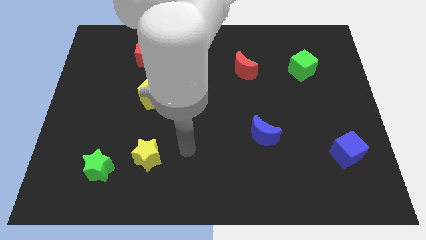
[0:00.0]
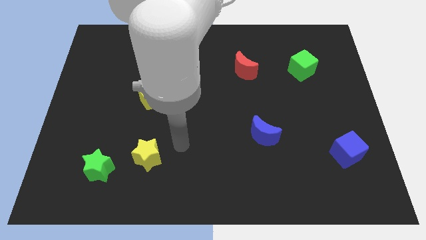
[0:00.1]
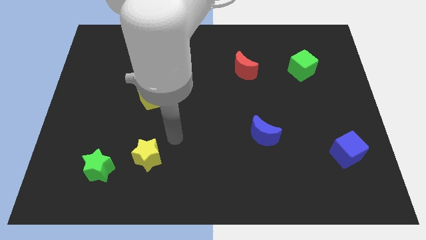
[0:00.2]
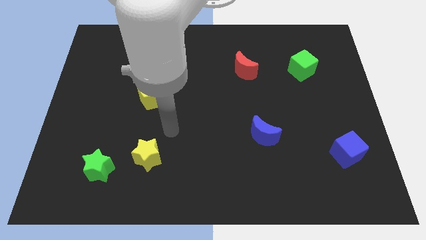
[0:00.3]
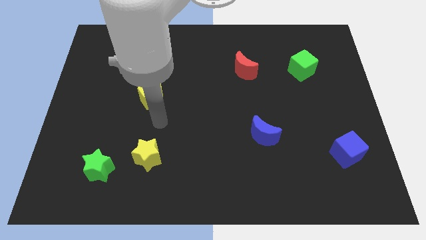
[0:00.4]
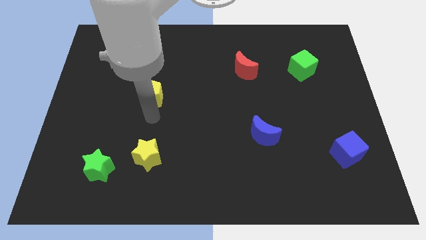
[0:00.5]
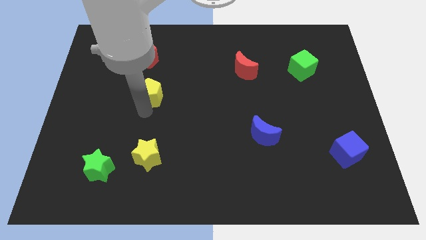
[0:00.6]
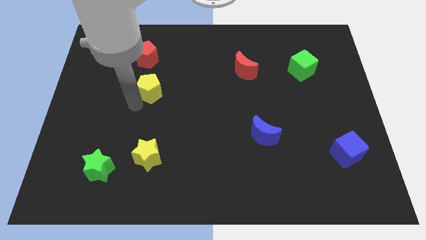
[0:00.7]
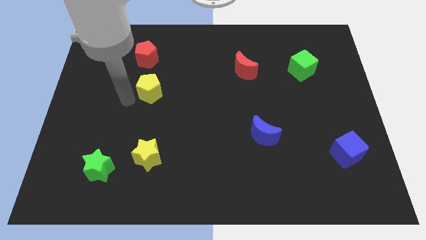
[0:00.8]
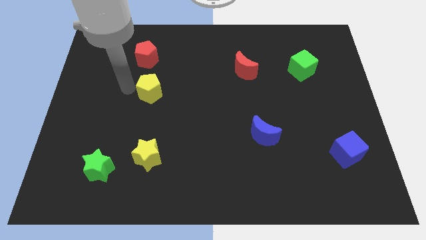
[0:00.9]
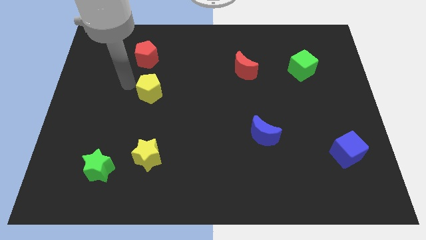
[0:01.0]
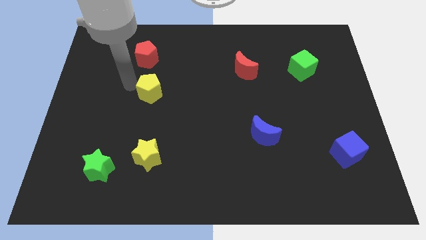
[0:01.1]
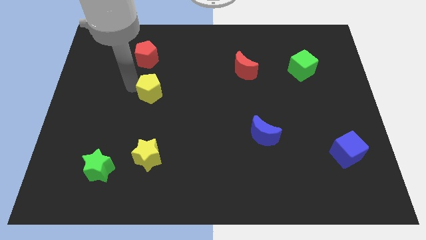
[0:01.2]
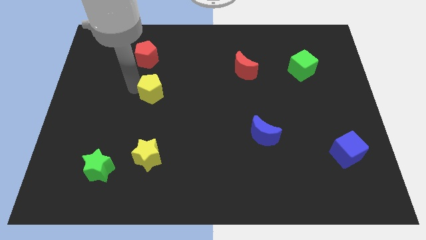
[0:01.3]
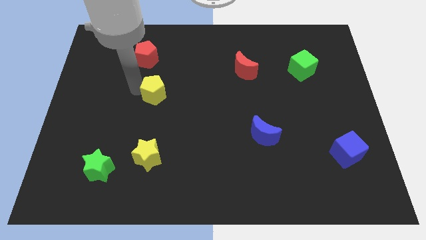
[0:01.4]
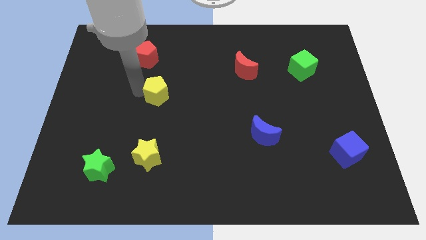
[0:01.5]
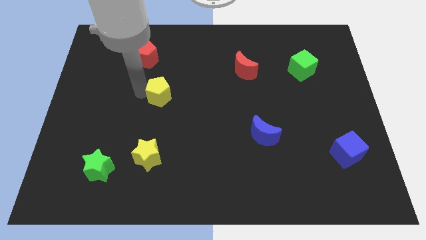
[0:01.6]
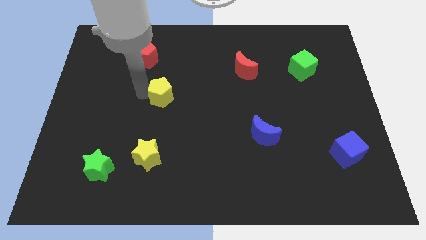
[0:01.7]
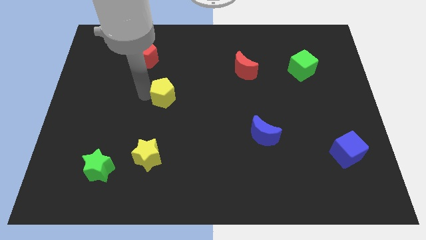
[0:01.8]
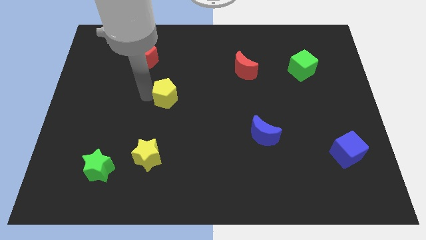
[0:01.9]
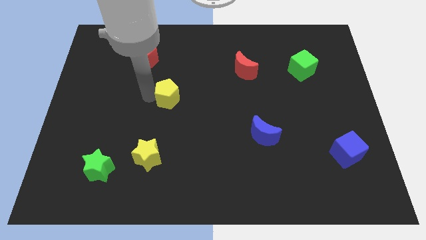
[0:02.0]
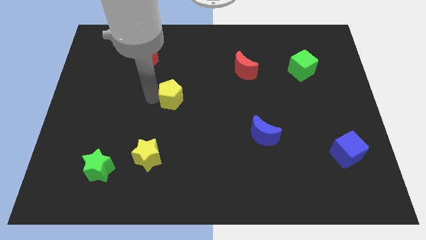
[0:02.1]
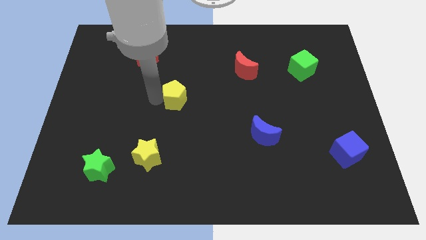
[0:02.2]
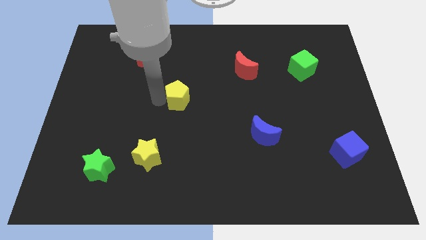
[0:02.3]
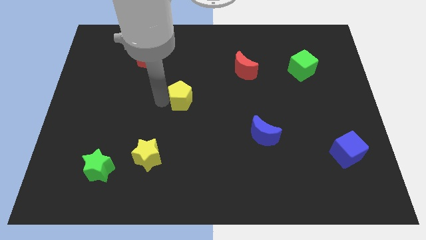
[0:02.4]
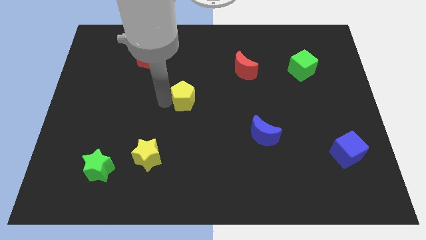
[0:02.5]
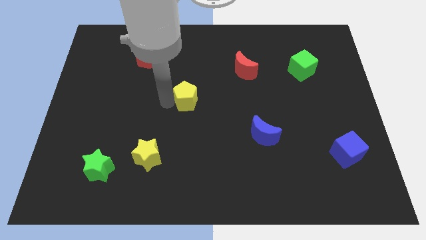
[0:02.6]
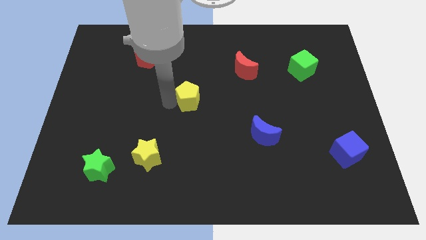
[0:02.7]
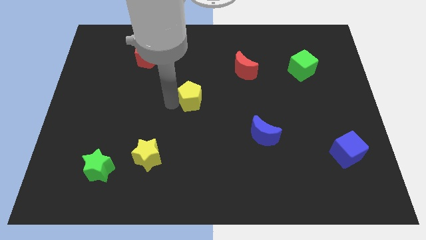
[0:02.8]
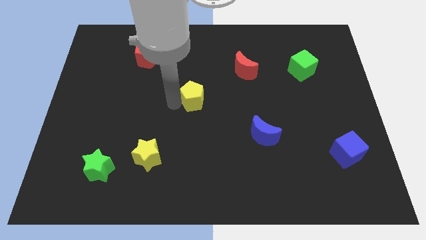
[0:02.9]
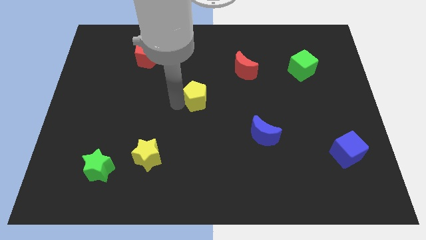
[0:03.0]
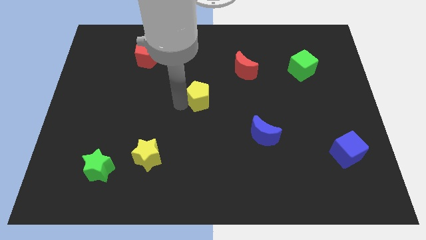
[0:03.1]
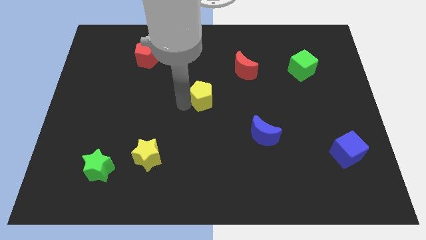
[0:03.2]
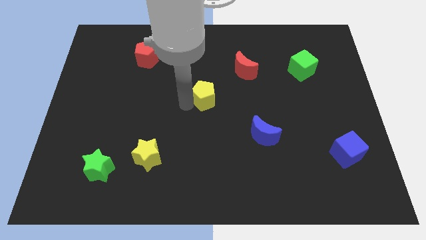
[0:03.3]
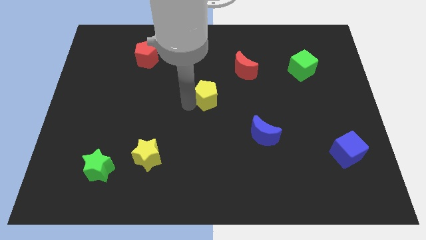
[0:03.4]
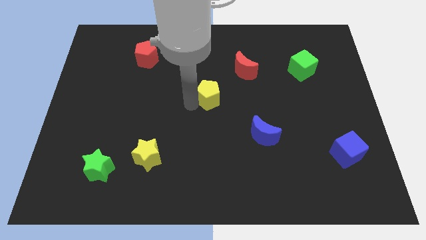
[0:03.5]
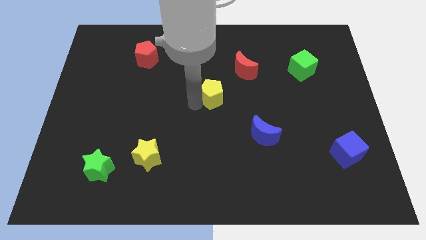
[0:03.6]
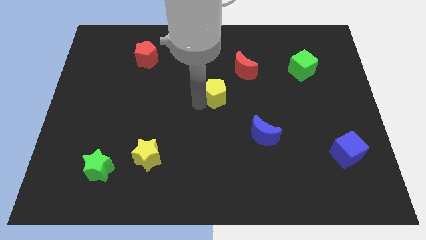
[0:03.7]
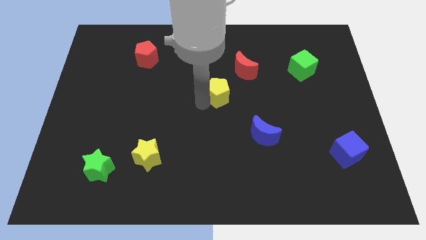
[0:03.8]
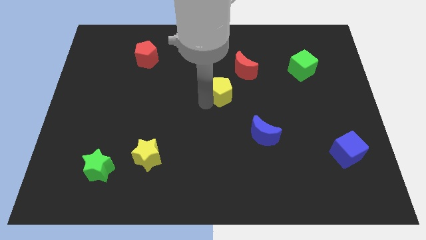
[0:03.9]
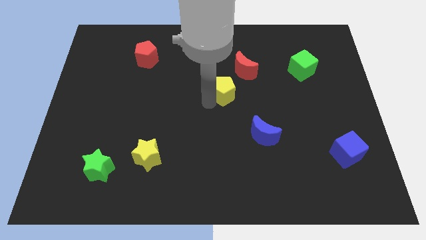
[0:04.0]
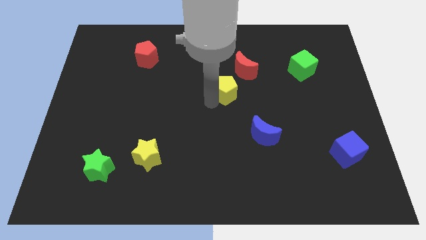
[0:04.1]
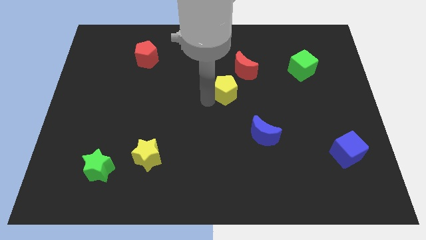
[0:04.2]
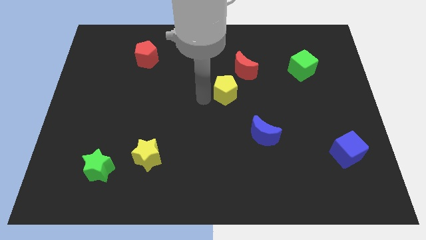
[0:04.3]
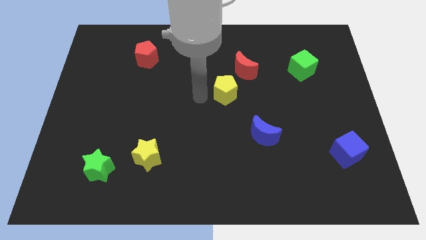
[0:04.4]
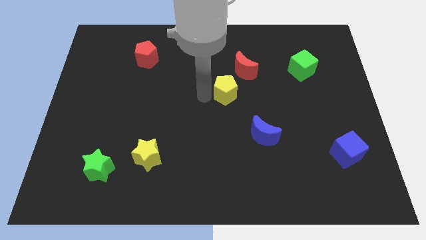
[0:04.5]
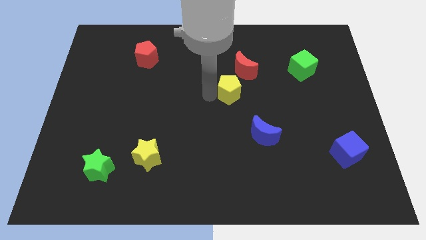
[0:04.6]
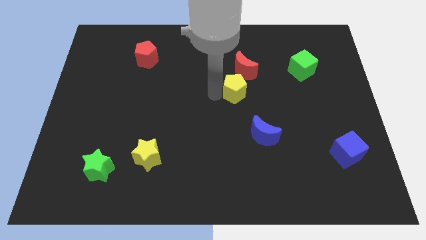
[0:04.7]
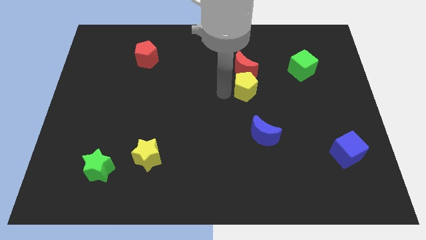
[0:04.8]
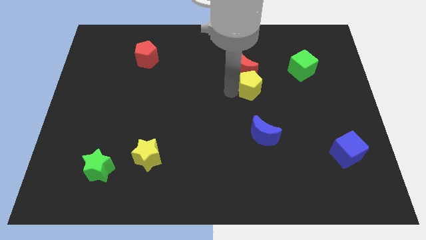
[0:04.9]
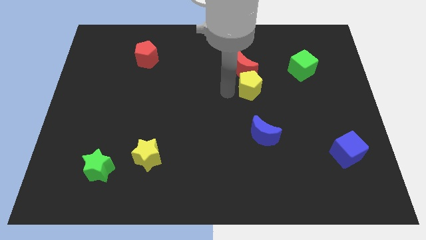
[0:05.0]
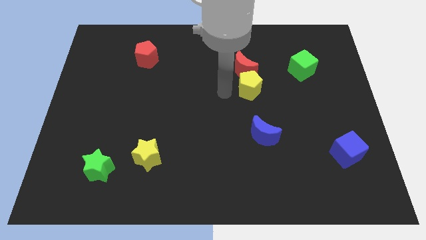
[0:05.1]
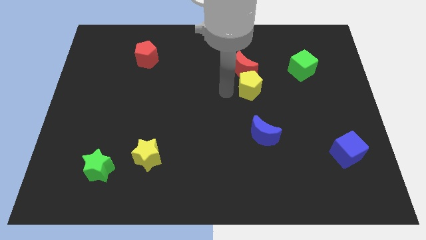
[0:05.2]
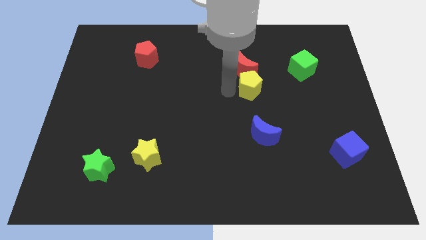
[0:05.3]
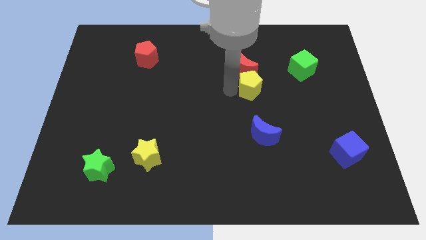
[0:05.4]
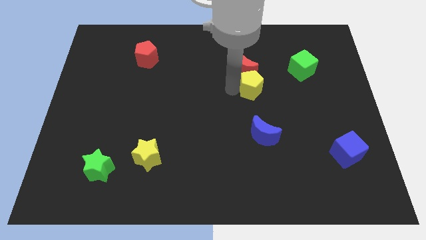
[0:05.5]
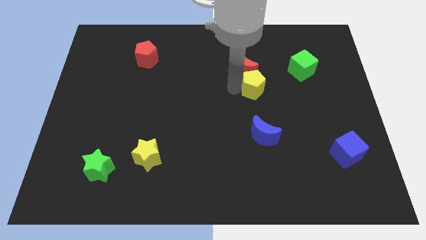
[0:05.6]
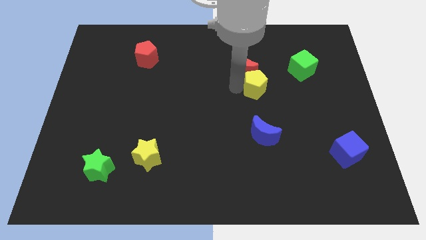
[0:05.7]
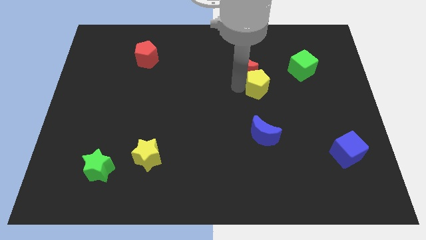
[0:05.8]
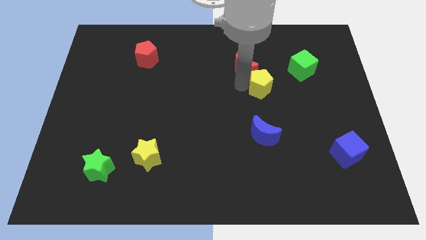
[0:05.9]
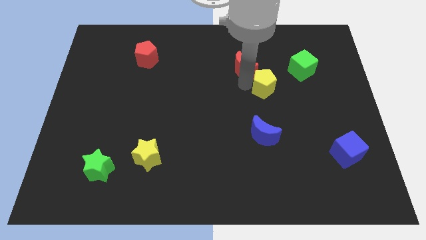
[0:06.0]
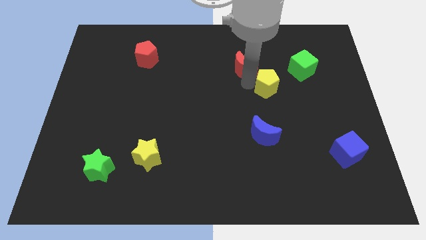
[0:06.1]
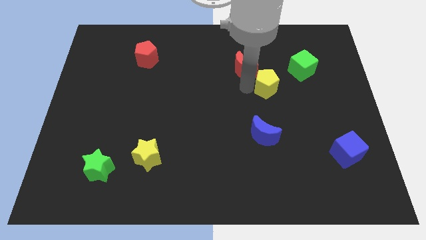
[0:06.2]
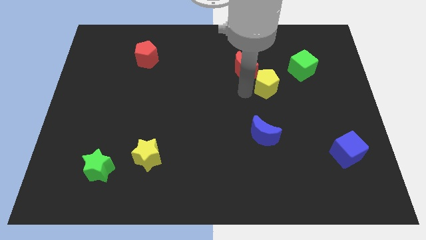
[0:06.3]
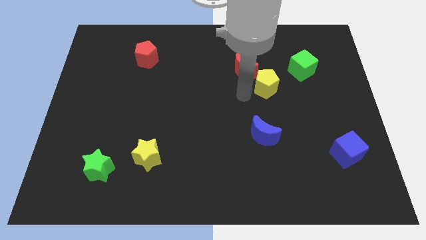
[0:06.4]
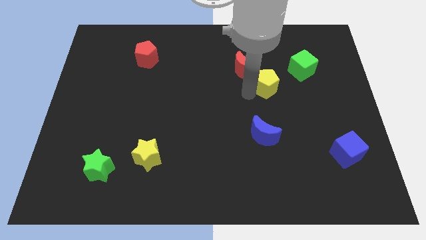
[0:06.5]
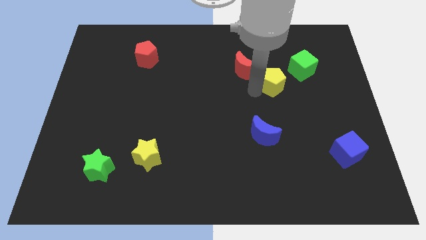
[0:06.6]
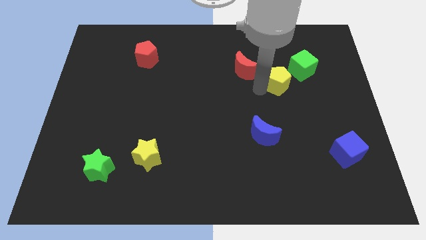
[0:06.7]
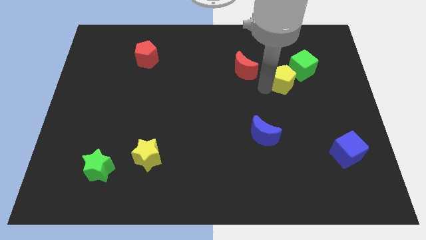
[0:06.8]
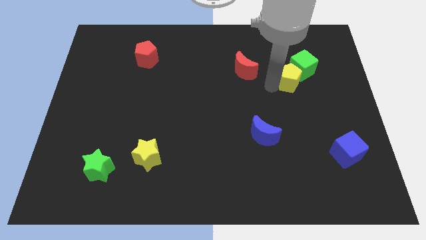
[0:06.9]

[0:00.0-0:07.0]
move the yellow pentagon close to the green cube
